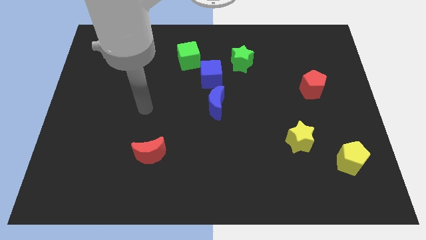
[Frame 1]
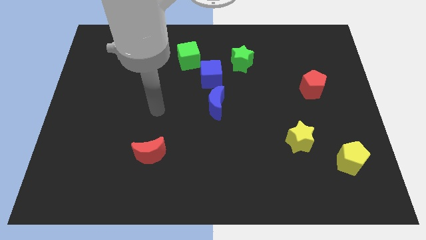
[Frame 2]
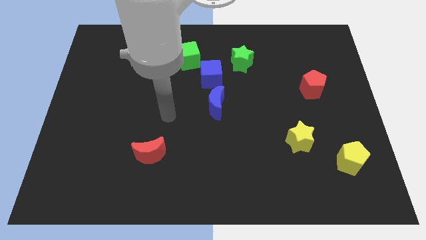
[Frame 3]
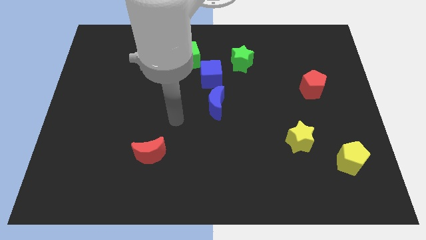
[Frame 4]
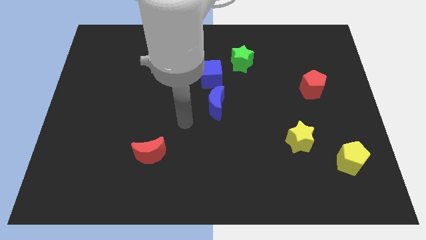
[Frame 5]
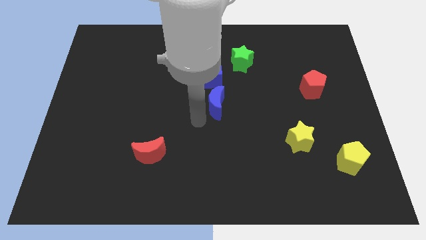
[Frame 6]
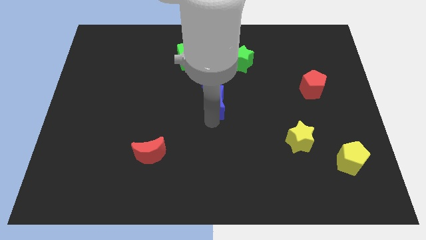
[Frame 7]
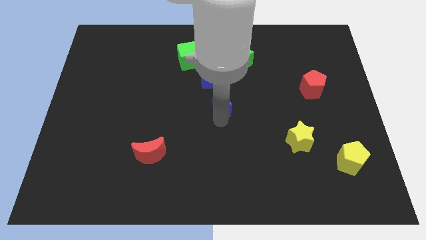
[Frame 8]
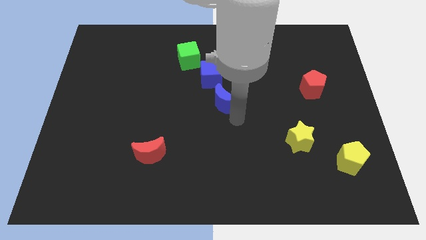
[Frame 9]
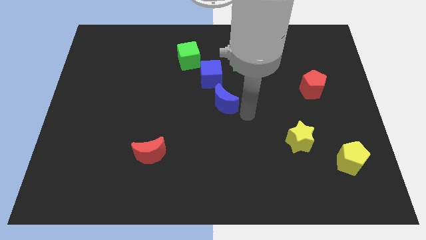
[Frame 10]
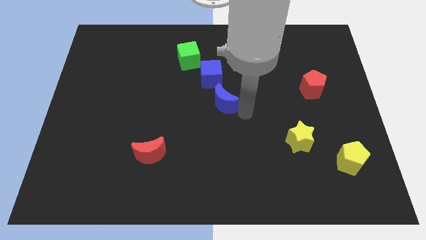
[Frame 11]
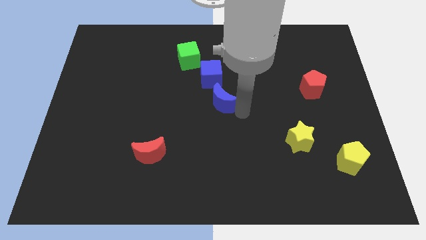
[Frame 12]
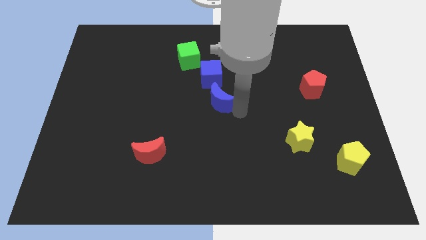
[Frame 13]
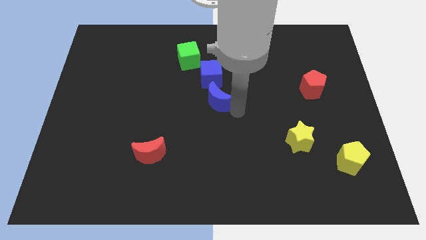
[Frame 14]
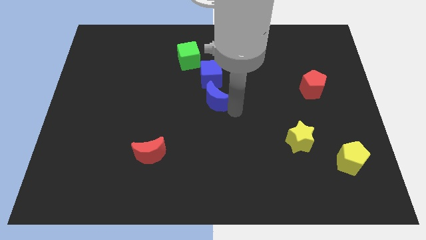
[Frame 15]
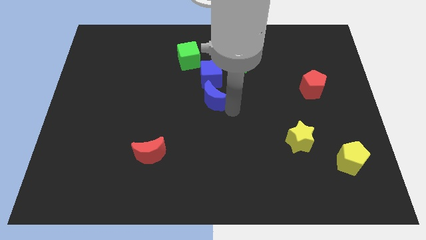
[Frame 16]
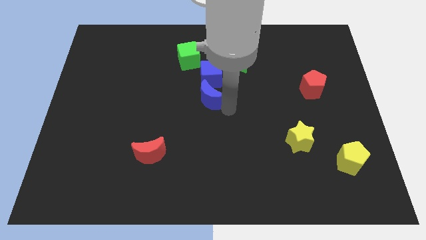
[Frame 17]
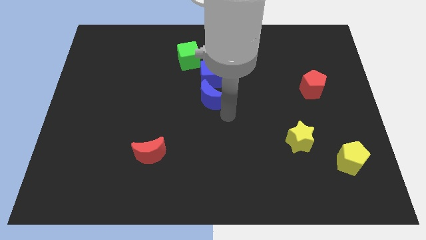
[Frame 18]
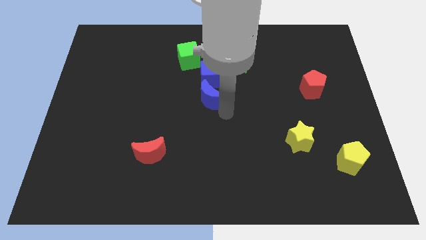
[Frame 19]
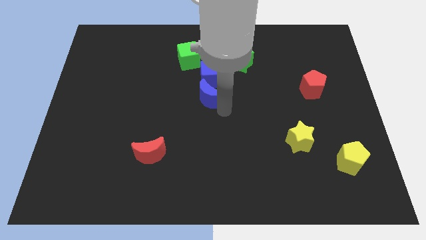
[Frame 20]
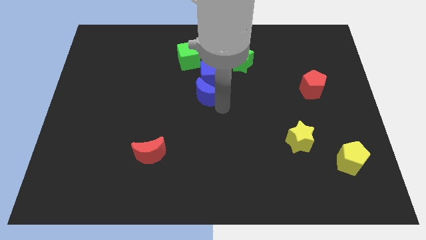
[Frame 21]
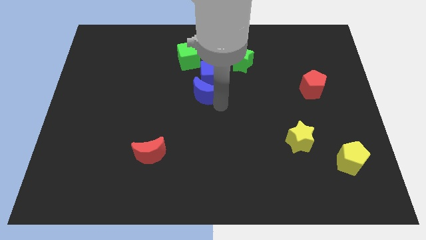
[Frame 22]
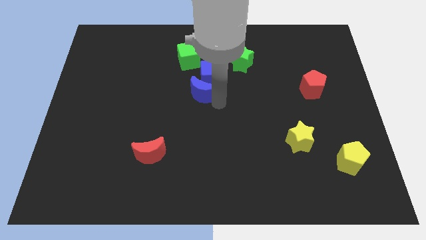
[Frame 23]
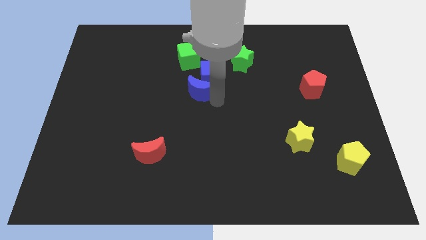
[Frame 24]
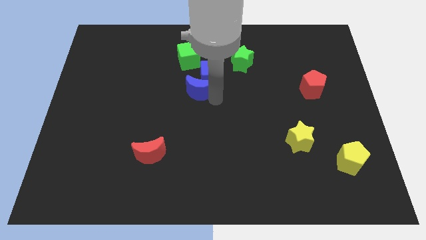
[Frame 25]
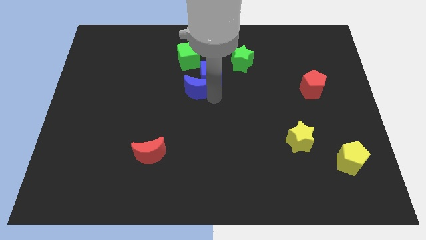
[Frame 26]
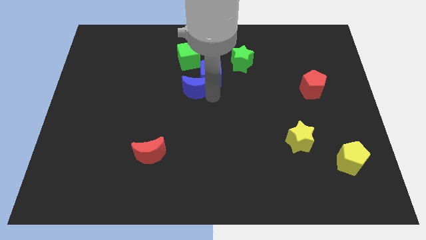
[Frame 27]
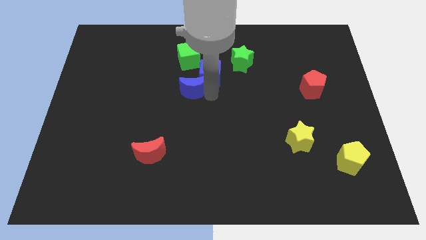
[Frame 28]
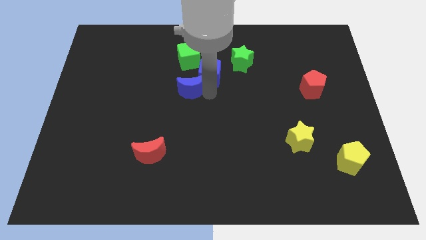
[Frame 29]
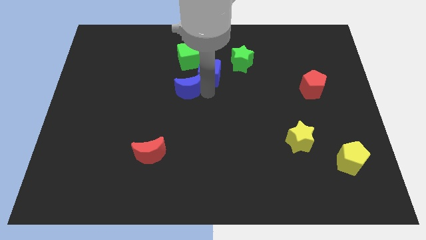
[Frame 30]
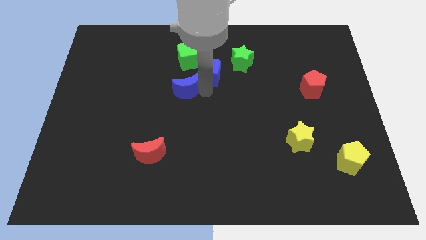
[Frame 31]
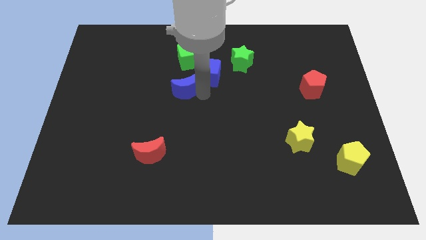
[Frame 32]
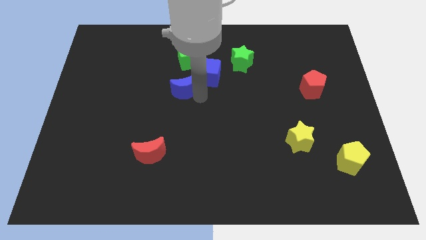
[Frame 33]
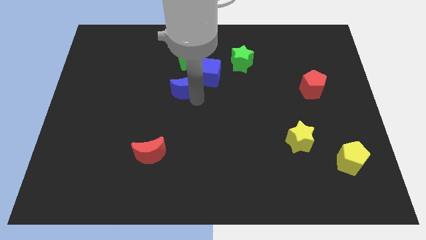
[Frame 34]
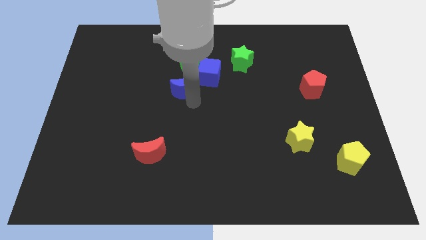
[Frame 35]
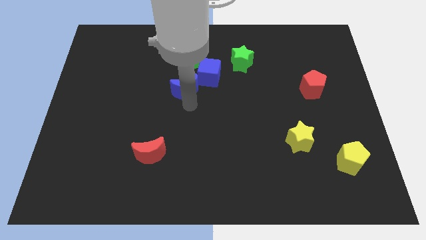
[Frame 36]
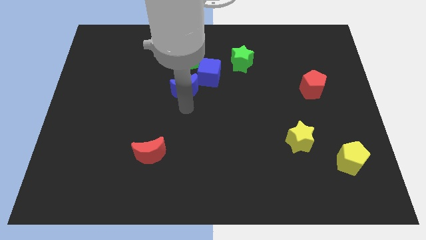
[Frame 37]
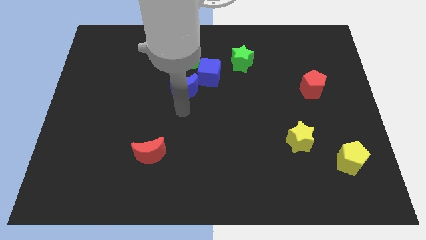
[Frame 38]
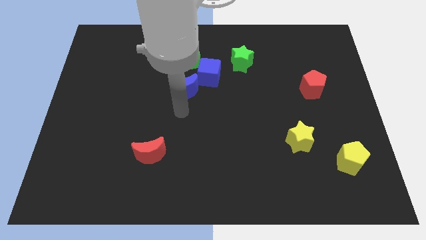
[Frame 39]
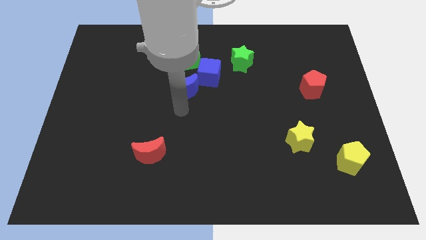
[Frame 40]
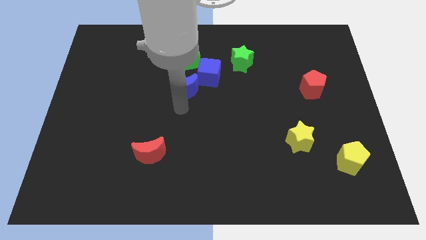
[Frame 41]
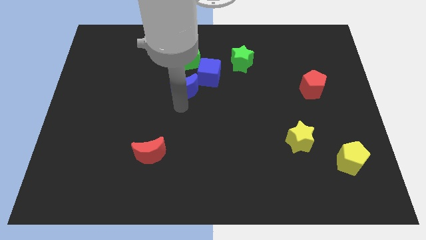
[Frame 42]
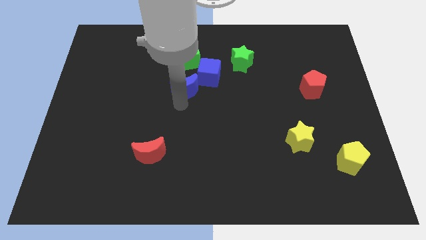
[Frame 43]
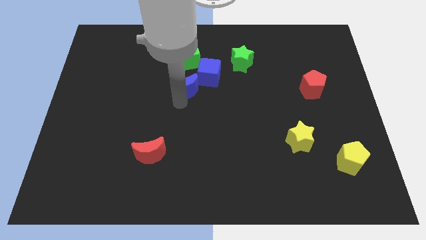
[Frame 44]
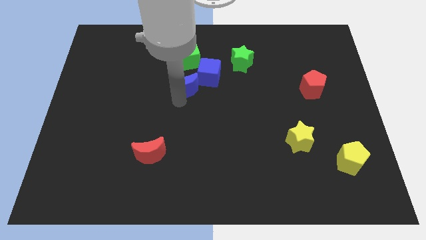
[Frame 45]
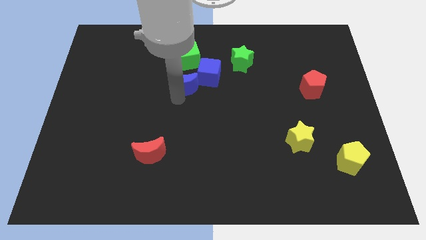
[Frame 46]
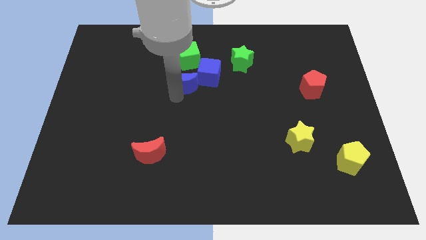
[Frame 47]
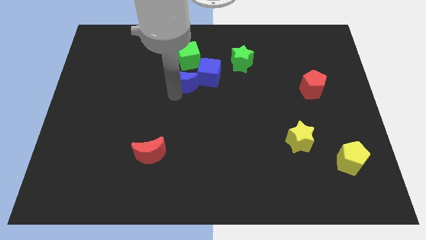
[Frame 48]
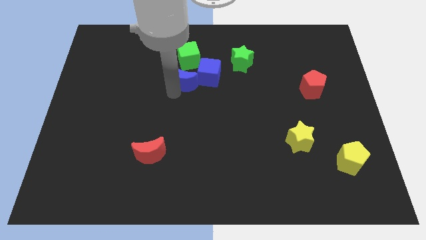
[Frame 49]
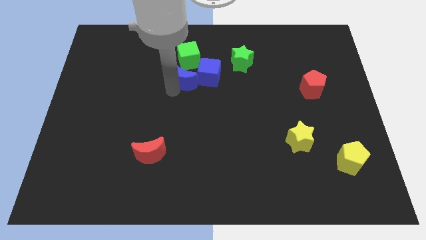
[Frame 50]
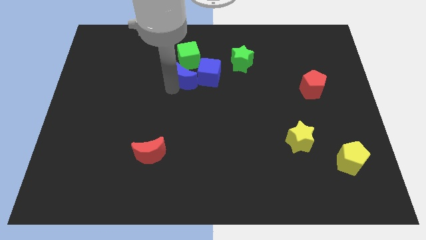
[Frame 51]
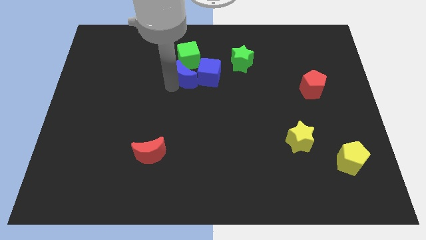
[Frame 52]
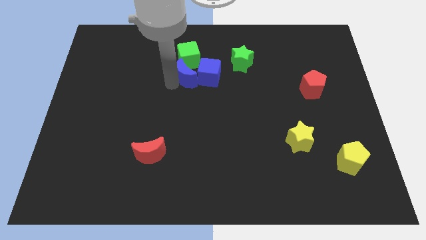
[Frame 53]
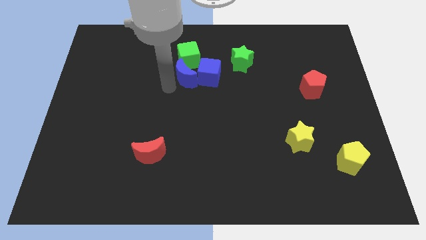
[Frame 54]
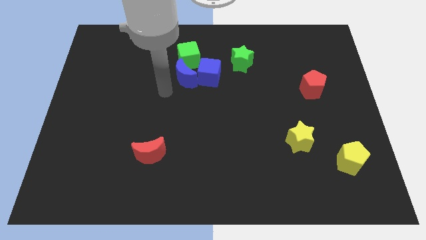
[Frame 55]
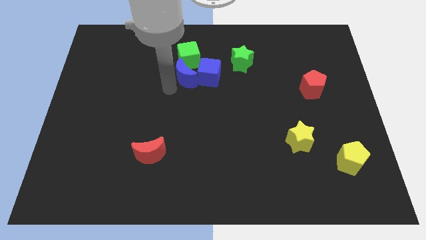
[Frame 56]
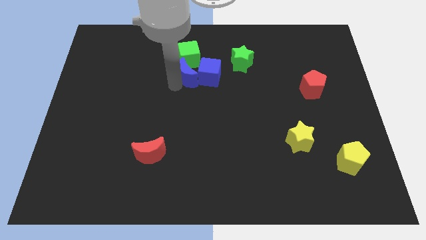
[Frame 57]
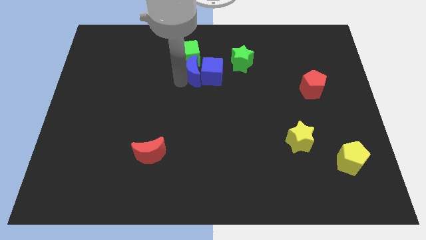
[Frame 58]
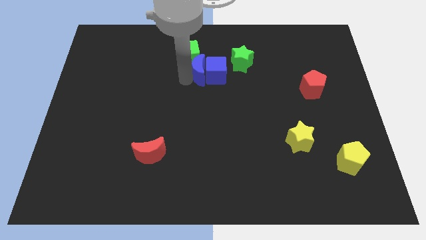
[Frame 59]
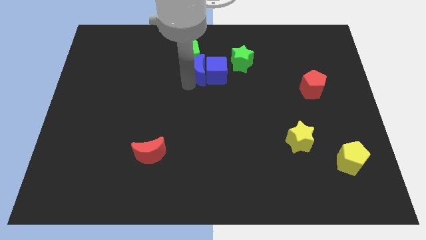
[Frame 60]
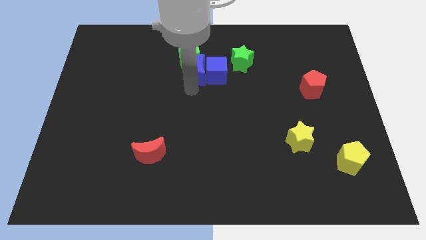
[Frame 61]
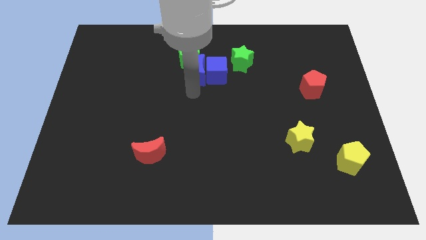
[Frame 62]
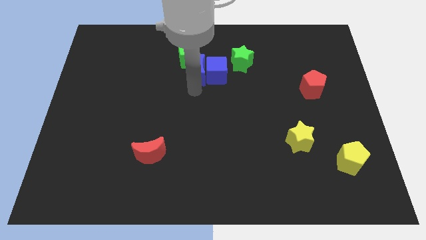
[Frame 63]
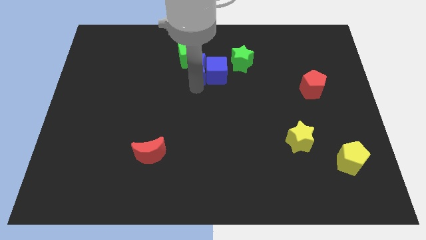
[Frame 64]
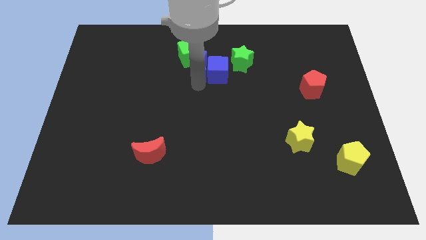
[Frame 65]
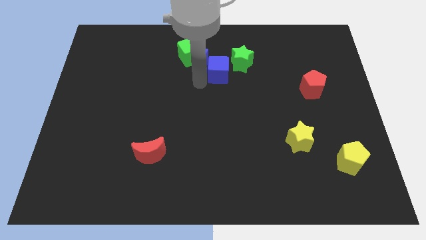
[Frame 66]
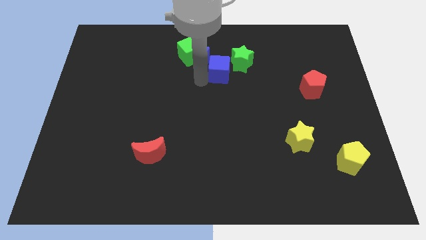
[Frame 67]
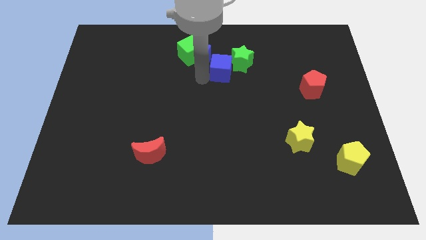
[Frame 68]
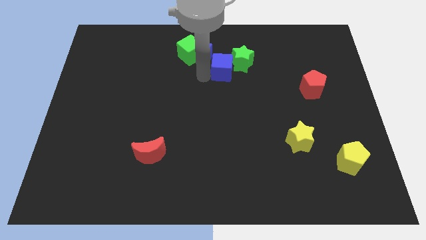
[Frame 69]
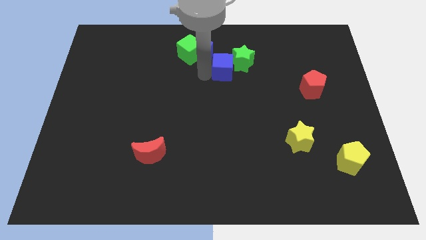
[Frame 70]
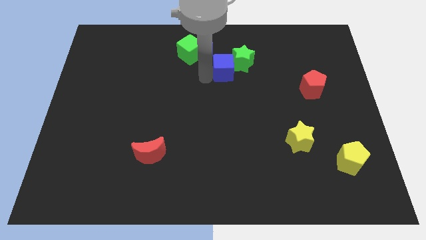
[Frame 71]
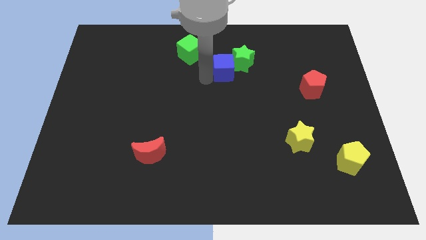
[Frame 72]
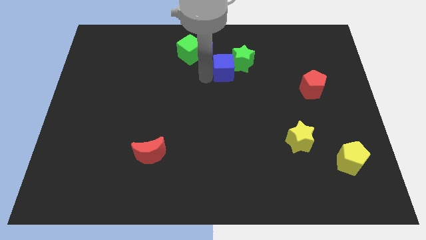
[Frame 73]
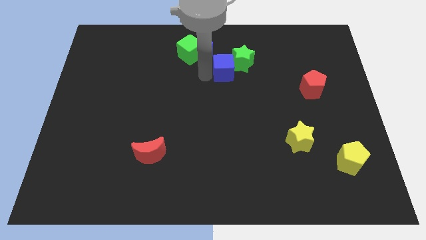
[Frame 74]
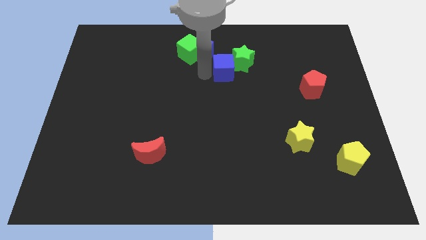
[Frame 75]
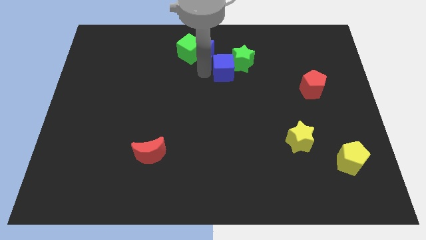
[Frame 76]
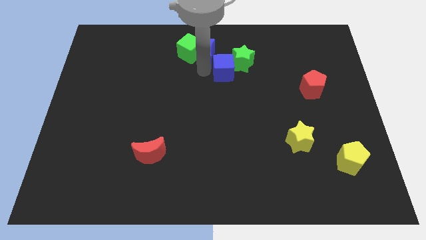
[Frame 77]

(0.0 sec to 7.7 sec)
put the blue moon to the top
